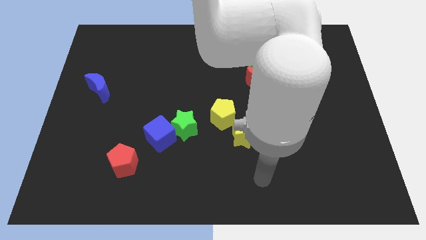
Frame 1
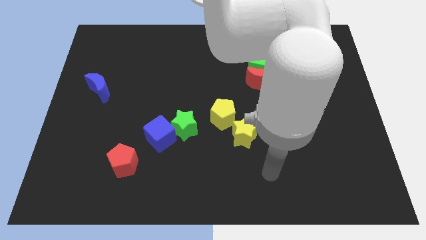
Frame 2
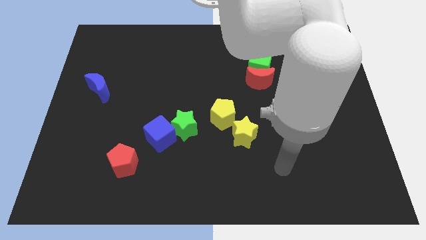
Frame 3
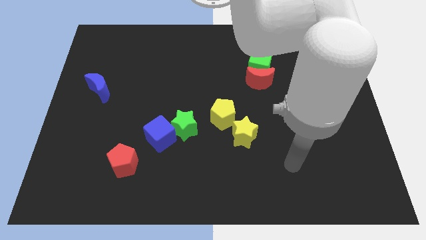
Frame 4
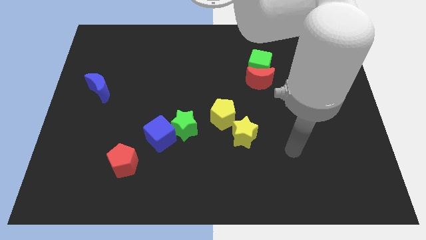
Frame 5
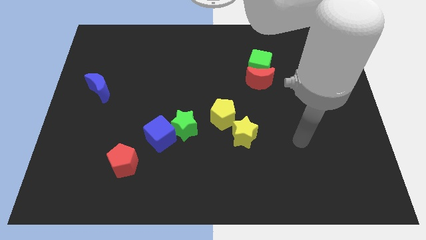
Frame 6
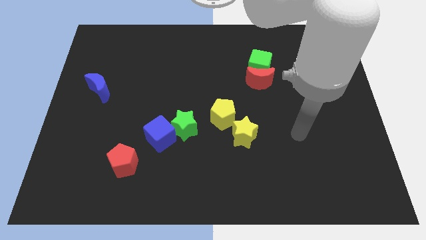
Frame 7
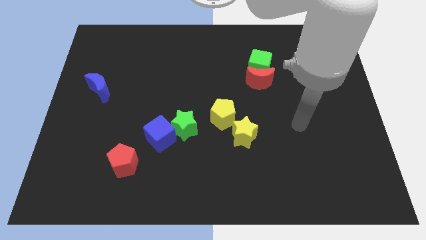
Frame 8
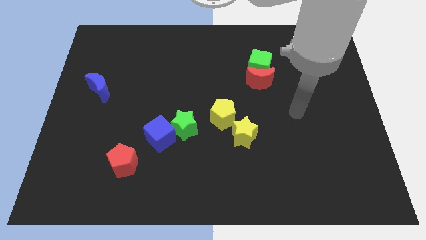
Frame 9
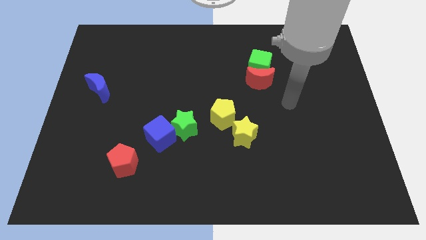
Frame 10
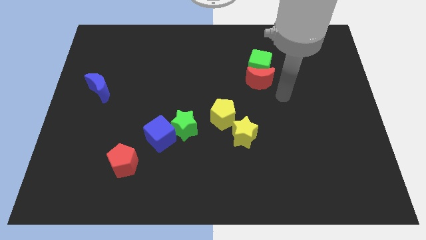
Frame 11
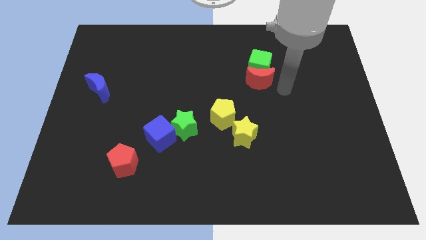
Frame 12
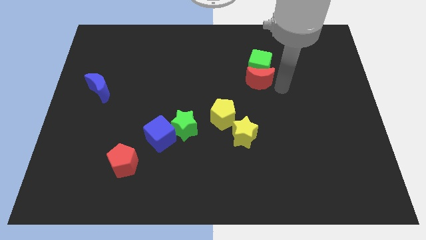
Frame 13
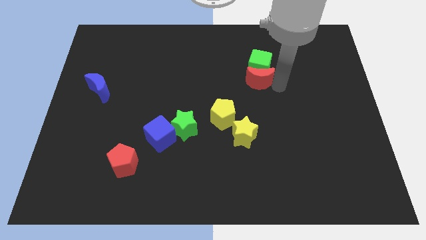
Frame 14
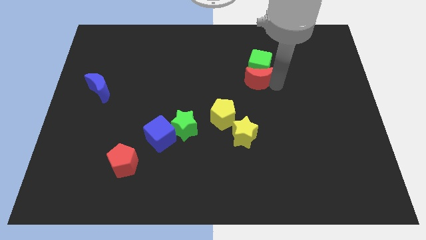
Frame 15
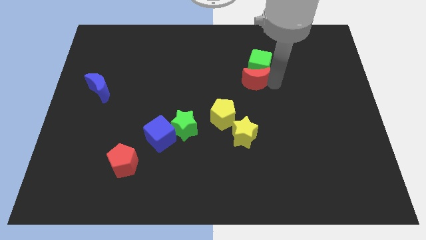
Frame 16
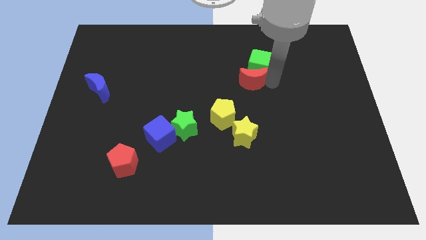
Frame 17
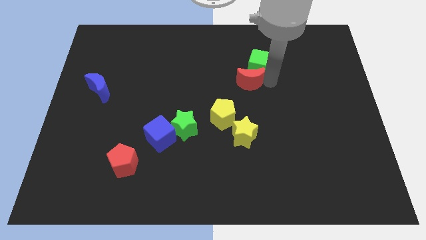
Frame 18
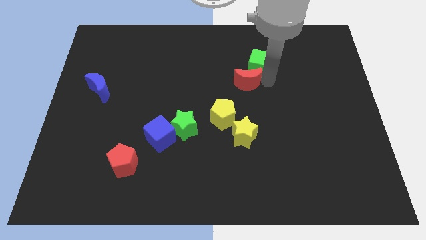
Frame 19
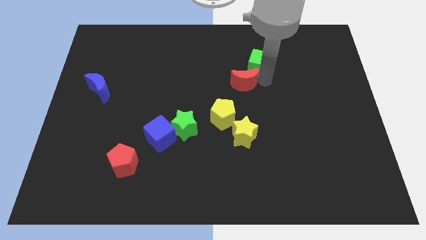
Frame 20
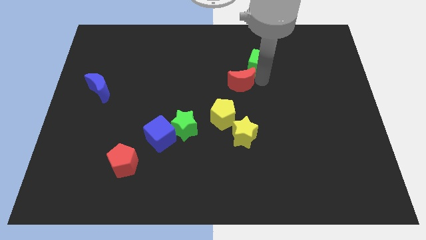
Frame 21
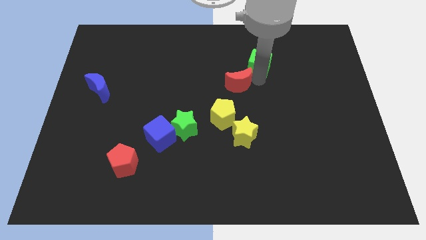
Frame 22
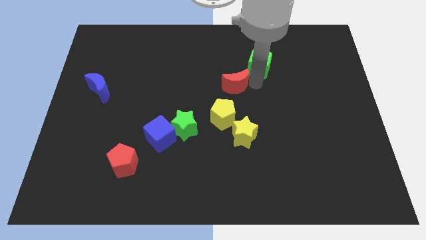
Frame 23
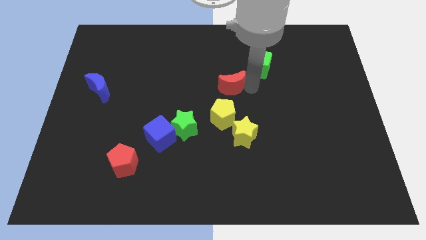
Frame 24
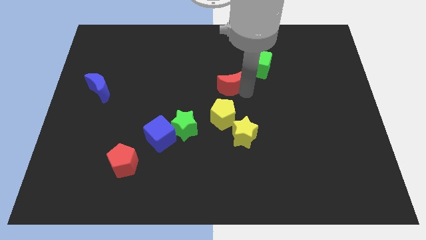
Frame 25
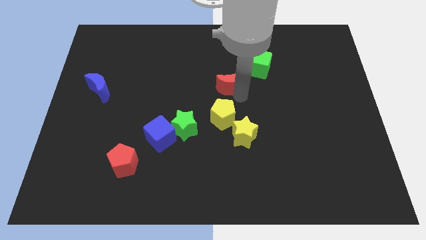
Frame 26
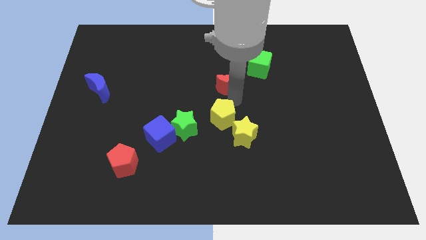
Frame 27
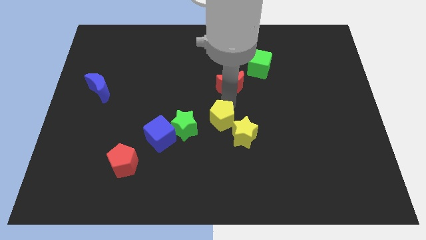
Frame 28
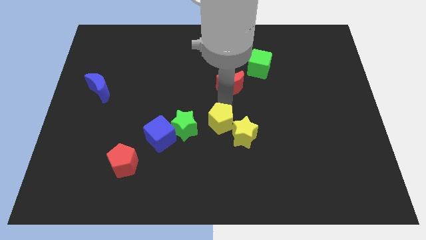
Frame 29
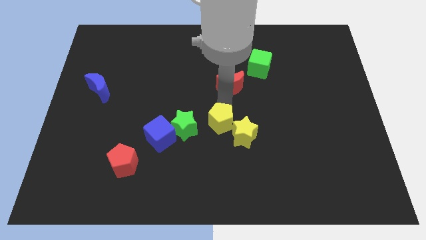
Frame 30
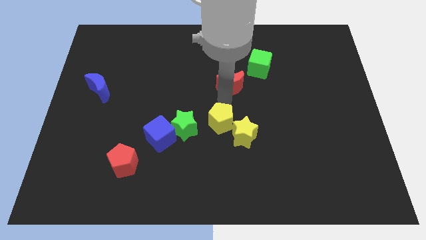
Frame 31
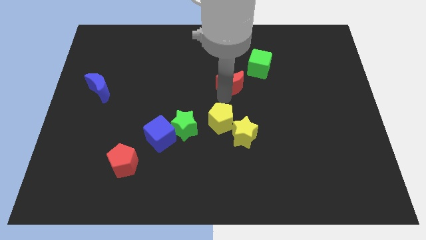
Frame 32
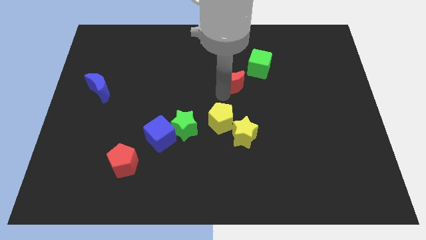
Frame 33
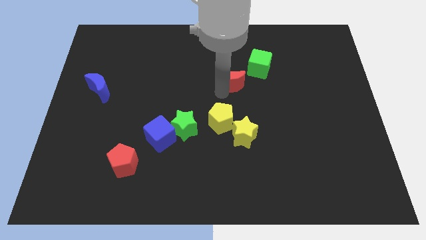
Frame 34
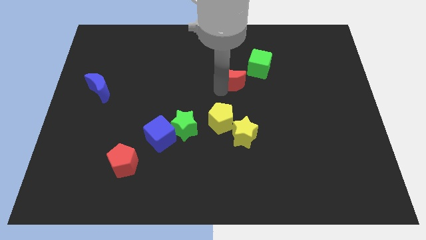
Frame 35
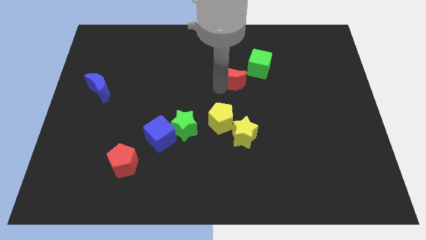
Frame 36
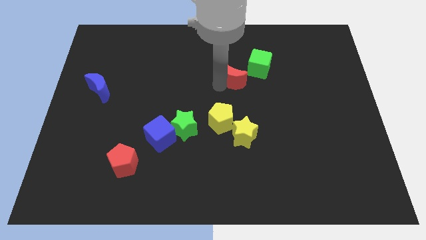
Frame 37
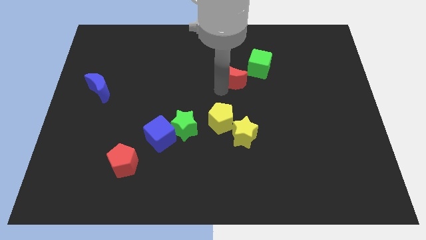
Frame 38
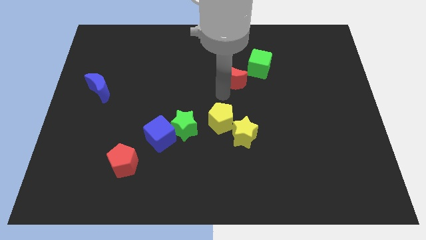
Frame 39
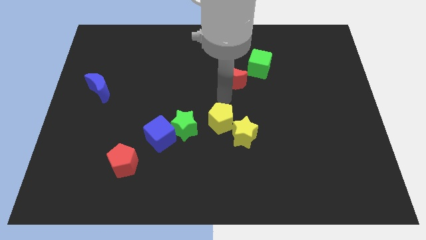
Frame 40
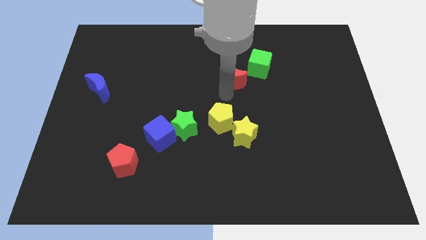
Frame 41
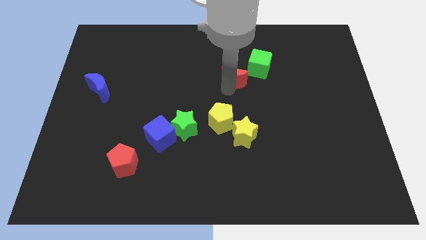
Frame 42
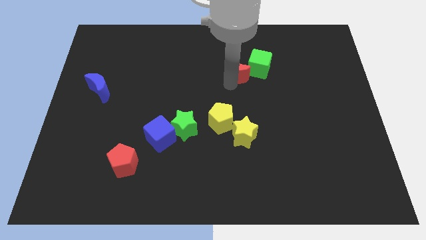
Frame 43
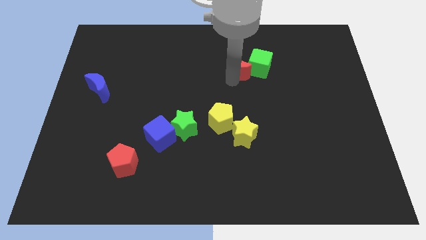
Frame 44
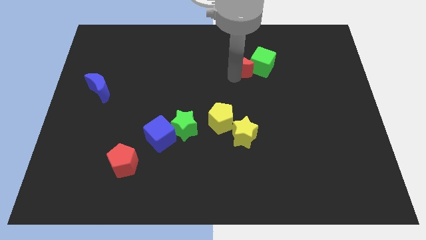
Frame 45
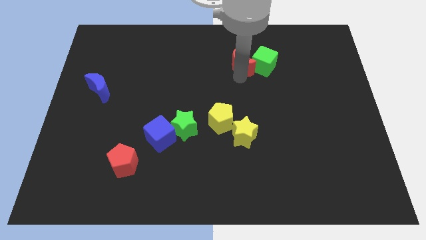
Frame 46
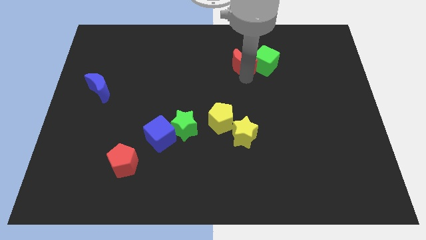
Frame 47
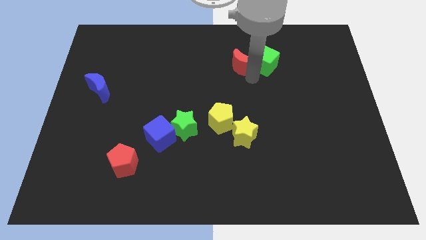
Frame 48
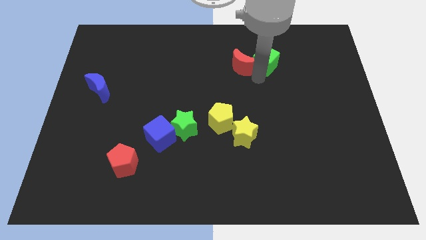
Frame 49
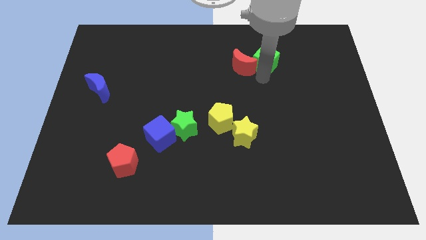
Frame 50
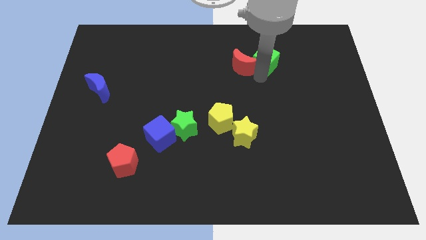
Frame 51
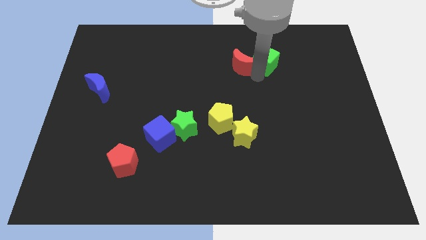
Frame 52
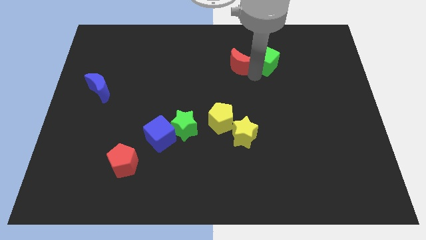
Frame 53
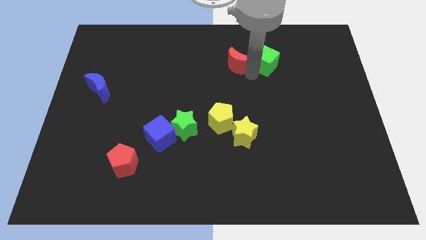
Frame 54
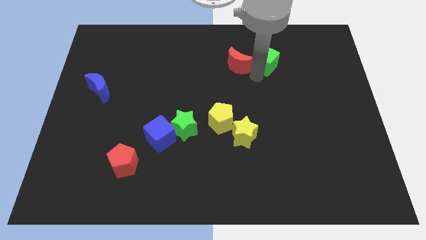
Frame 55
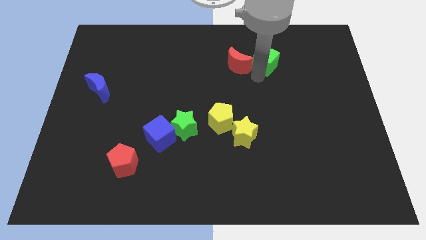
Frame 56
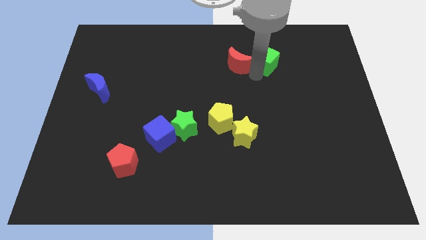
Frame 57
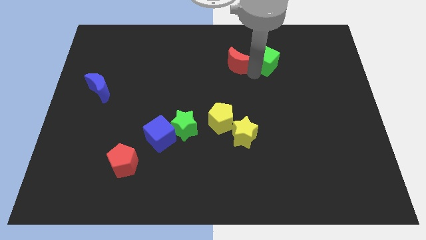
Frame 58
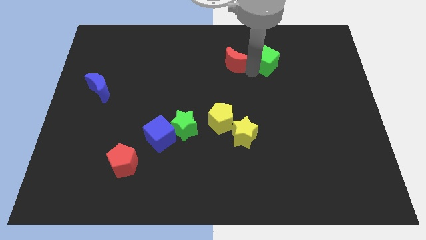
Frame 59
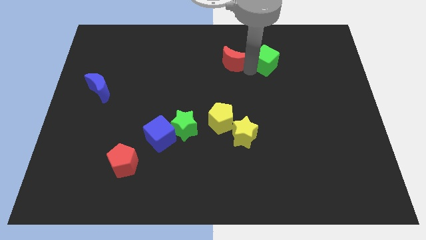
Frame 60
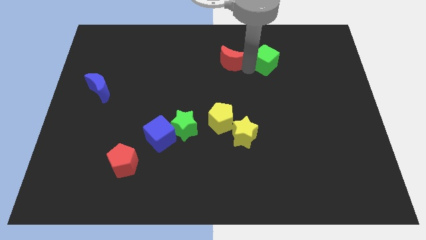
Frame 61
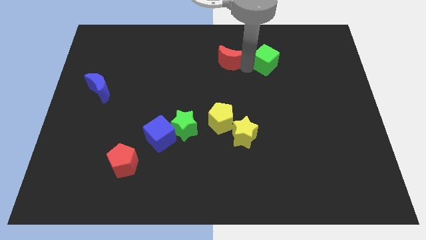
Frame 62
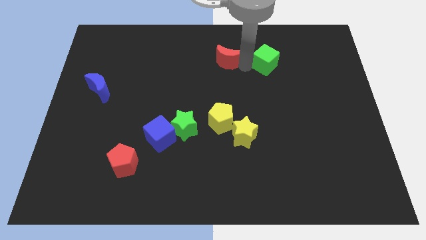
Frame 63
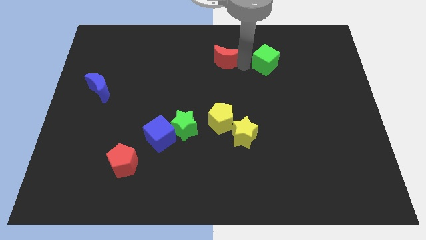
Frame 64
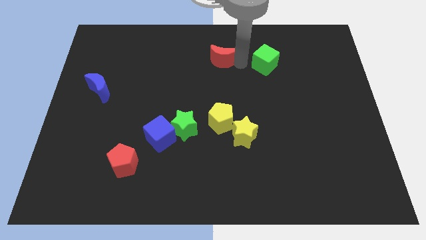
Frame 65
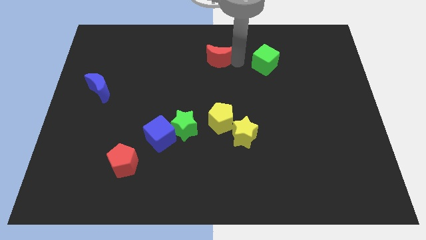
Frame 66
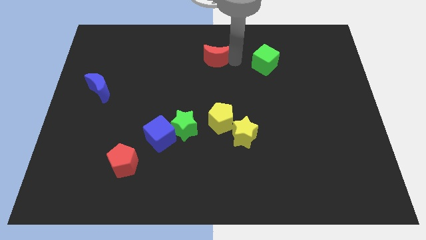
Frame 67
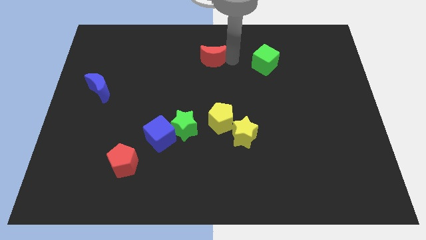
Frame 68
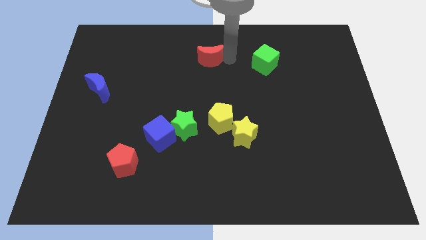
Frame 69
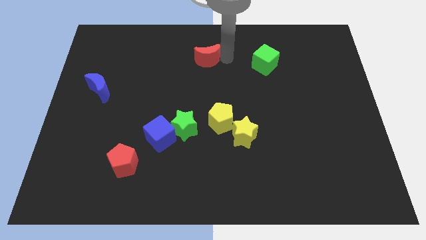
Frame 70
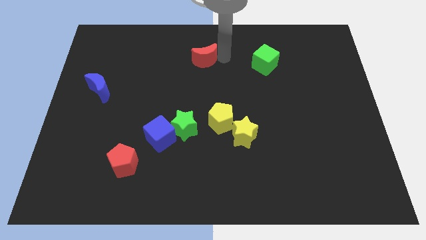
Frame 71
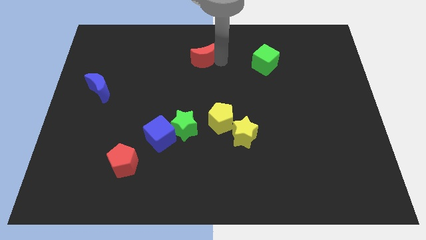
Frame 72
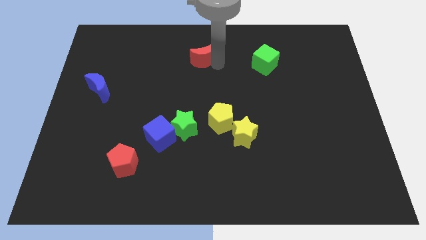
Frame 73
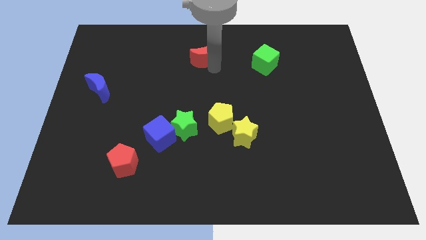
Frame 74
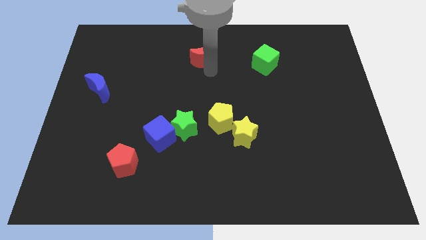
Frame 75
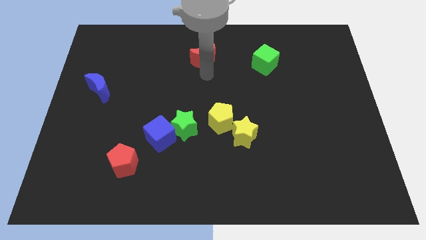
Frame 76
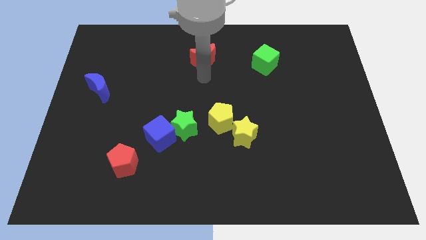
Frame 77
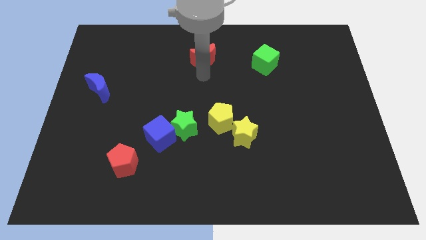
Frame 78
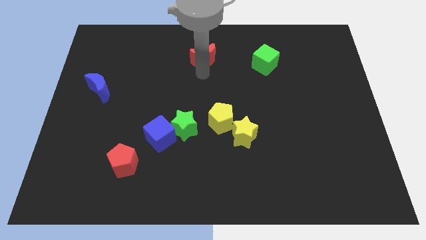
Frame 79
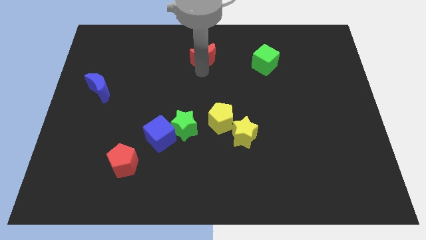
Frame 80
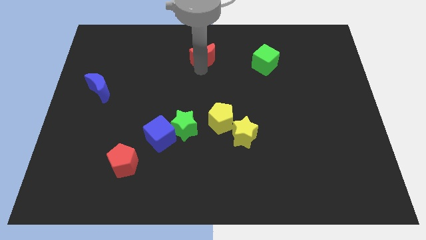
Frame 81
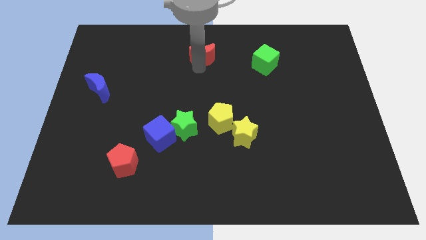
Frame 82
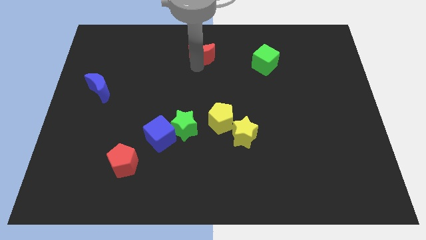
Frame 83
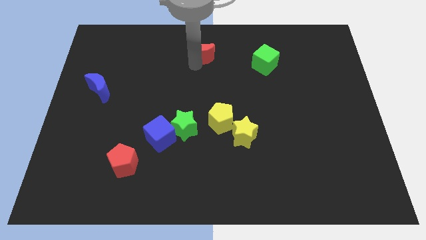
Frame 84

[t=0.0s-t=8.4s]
move the red moon to the top side
